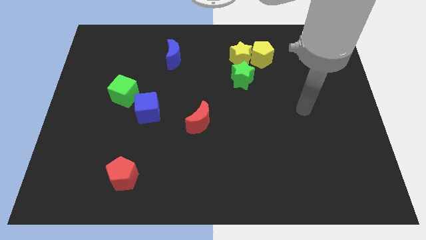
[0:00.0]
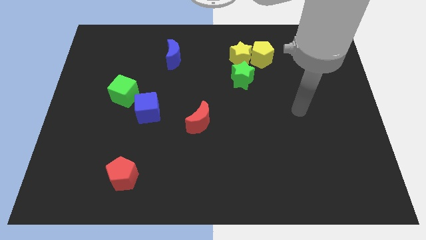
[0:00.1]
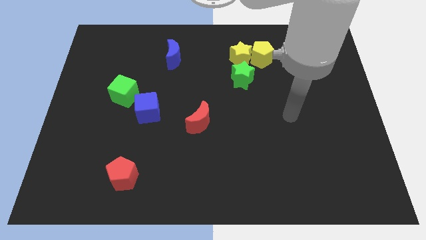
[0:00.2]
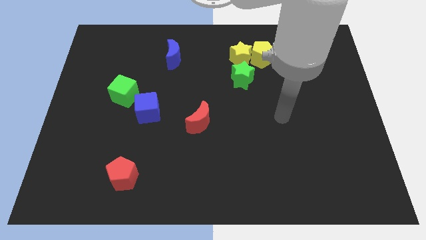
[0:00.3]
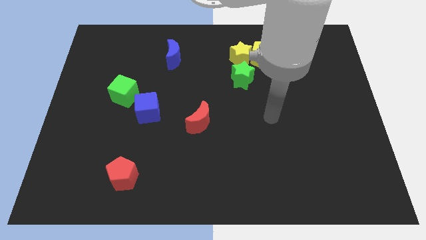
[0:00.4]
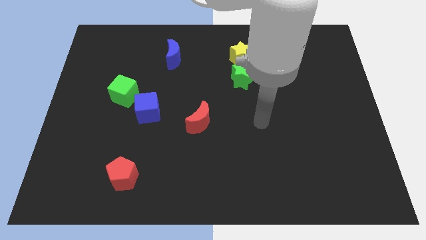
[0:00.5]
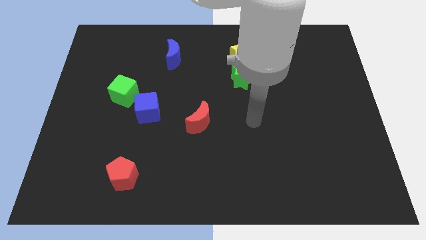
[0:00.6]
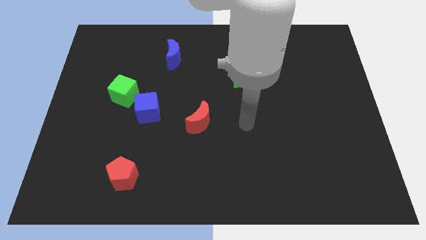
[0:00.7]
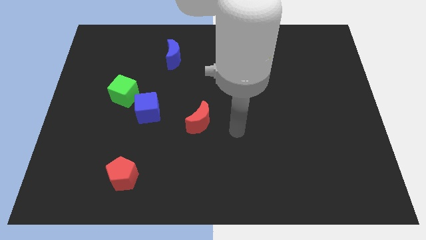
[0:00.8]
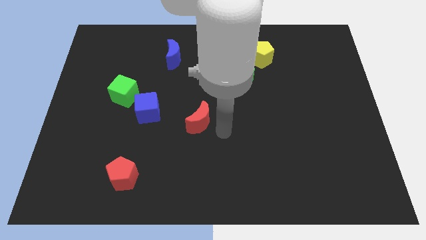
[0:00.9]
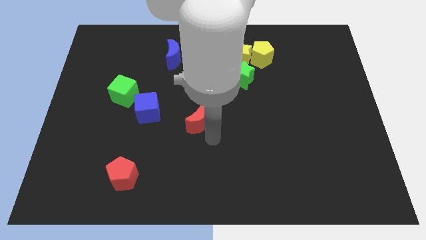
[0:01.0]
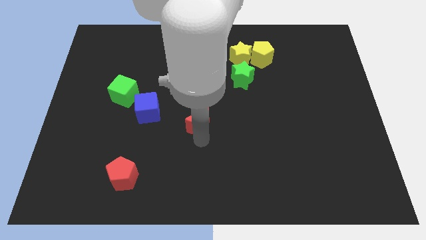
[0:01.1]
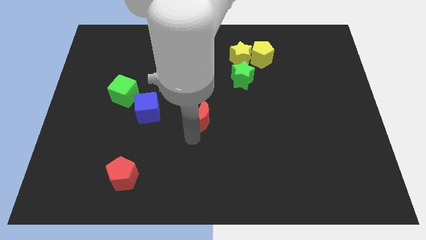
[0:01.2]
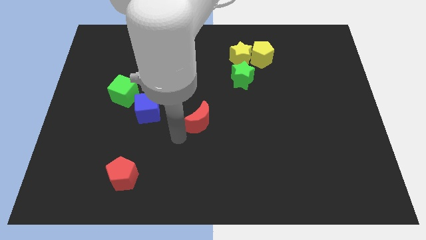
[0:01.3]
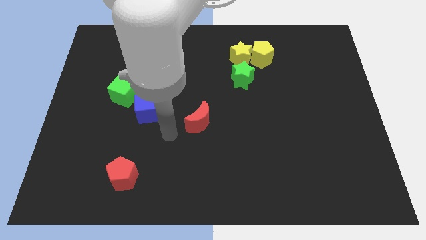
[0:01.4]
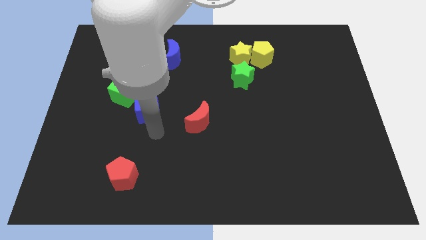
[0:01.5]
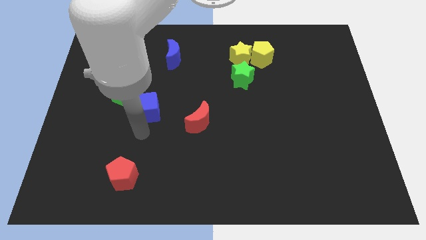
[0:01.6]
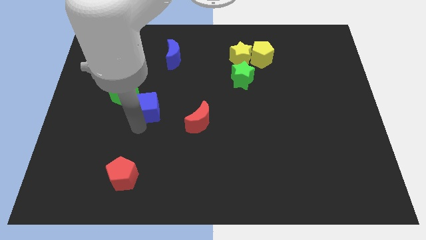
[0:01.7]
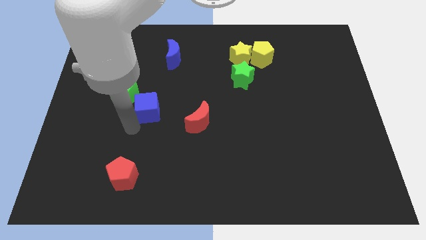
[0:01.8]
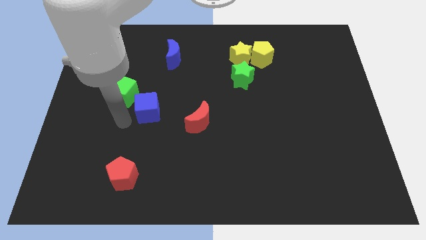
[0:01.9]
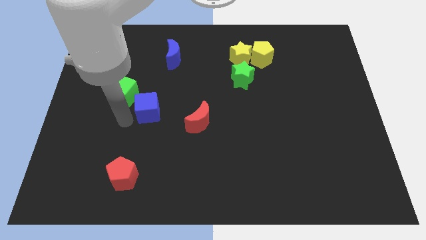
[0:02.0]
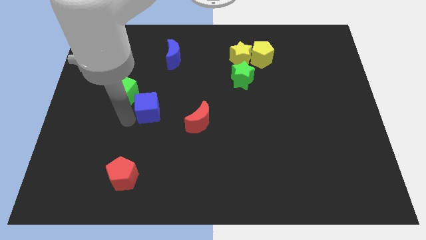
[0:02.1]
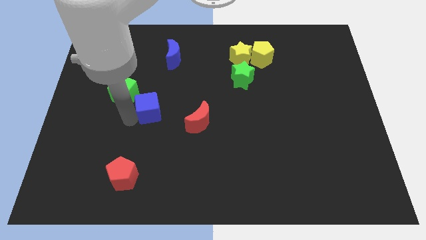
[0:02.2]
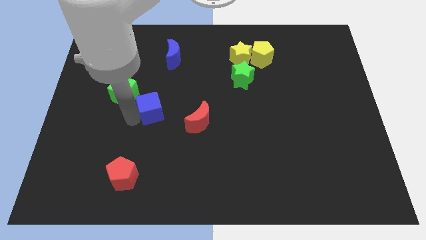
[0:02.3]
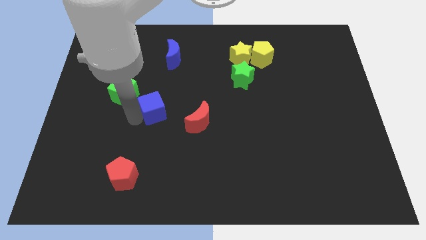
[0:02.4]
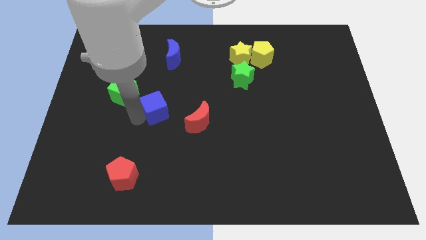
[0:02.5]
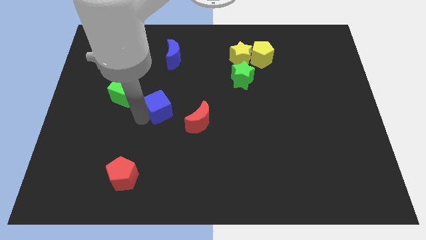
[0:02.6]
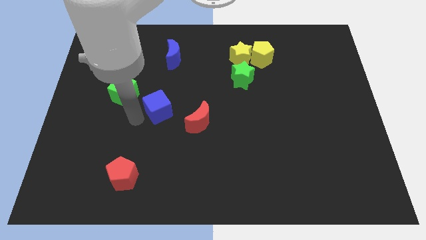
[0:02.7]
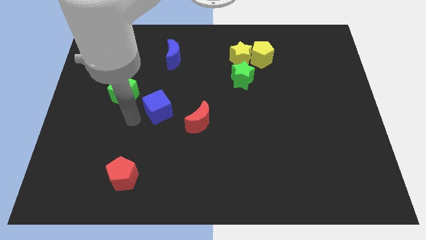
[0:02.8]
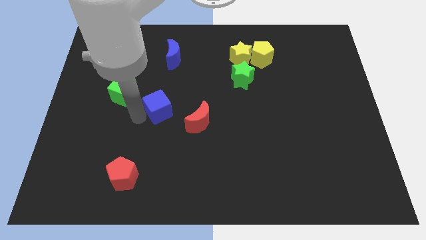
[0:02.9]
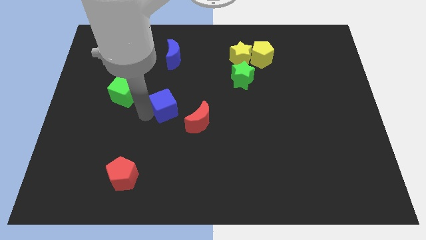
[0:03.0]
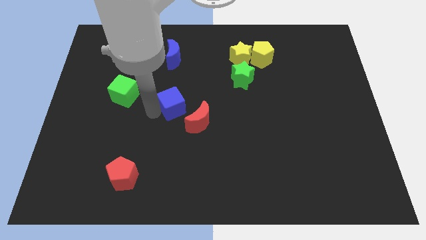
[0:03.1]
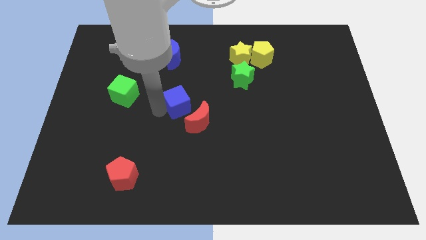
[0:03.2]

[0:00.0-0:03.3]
push the blue cube to the right a little

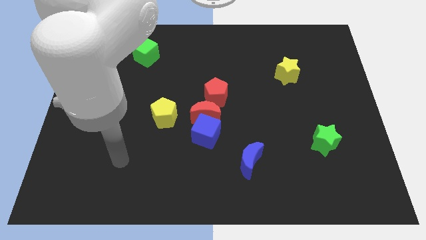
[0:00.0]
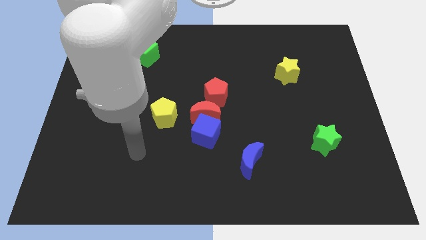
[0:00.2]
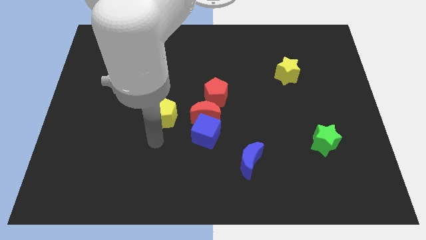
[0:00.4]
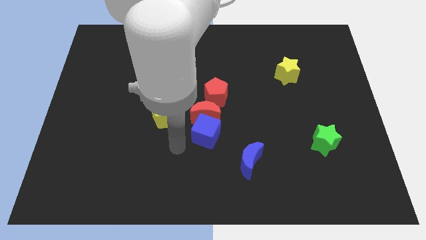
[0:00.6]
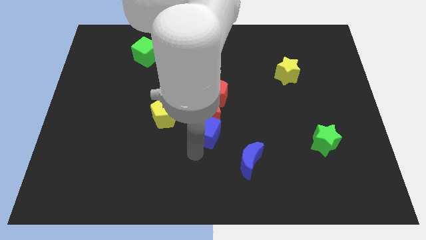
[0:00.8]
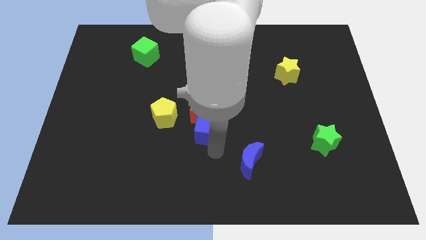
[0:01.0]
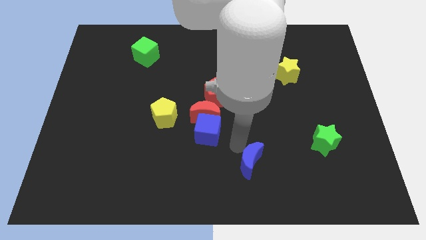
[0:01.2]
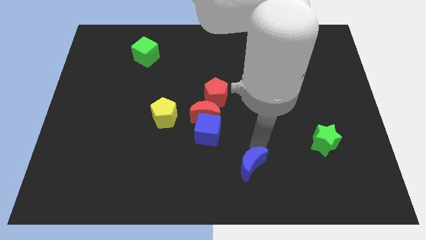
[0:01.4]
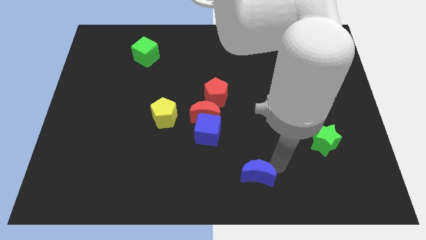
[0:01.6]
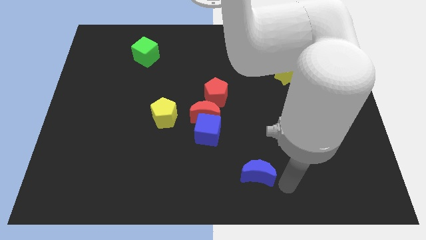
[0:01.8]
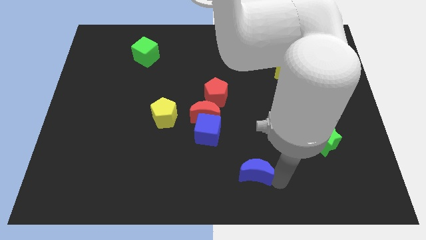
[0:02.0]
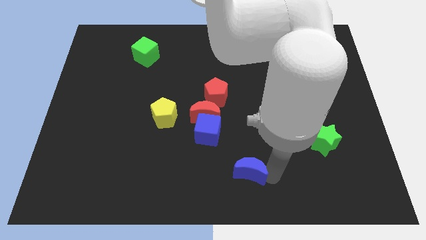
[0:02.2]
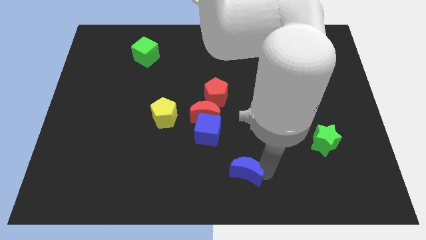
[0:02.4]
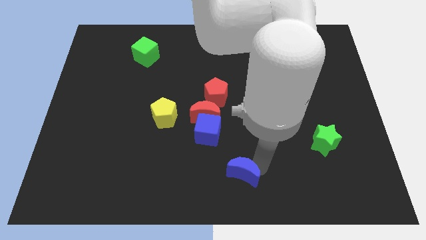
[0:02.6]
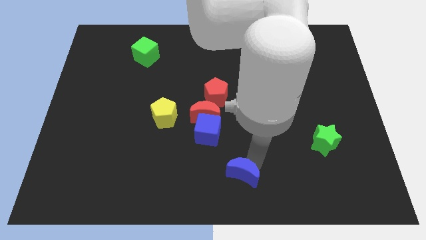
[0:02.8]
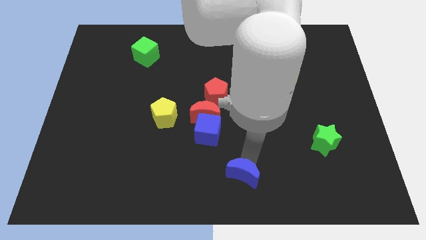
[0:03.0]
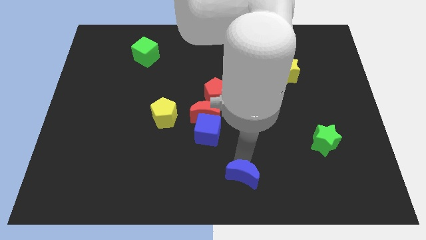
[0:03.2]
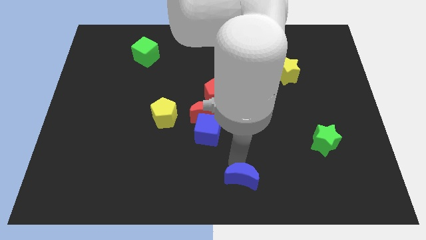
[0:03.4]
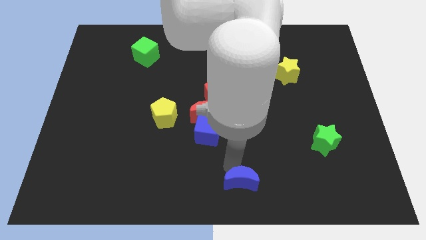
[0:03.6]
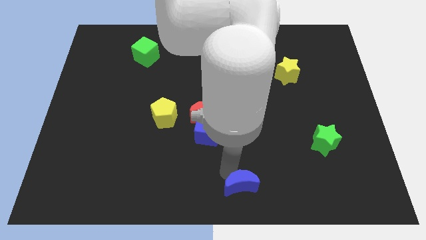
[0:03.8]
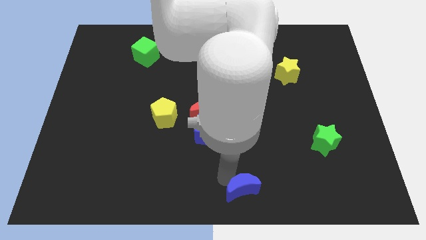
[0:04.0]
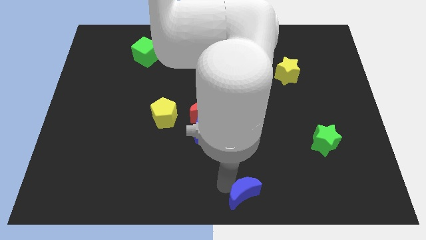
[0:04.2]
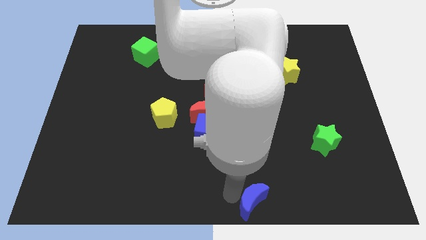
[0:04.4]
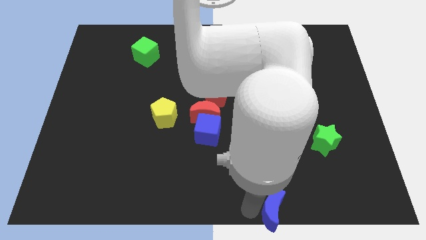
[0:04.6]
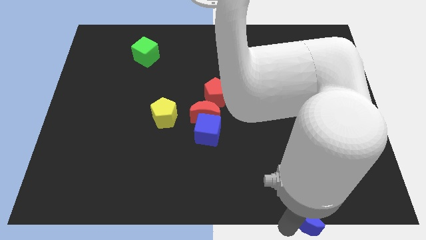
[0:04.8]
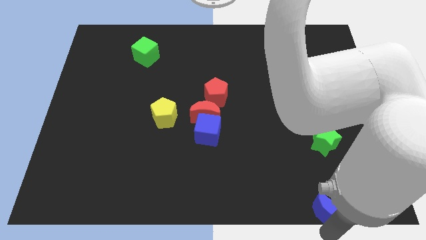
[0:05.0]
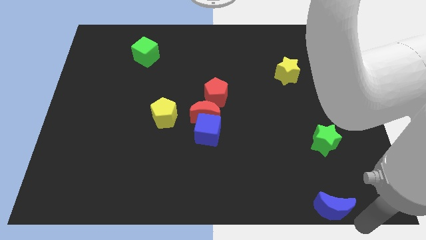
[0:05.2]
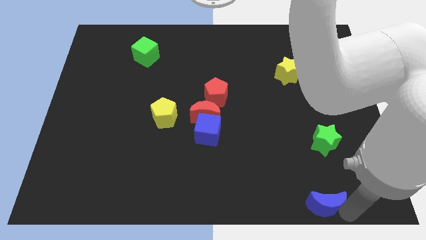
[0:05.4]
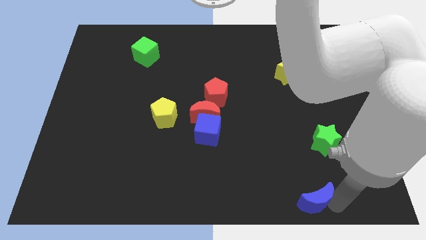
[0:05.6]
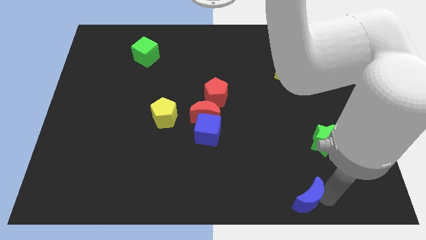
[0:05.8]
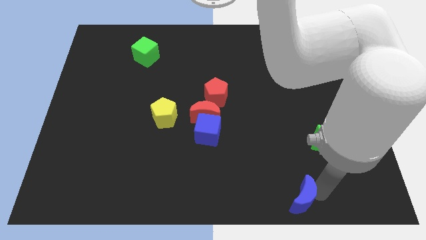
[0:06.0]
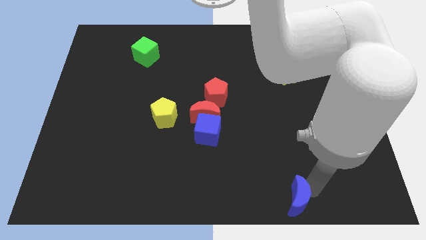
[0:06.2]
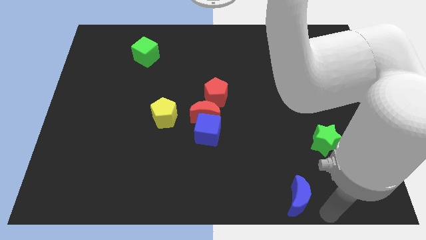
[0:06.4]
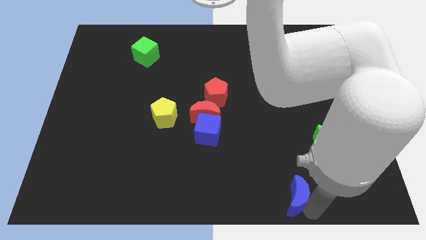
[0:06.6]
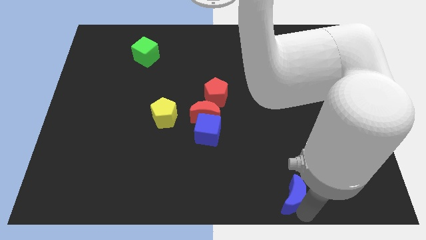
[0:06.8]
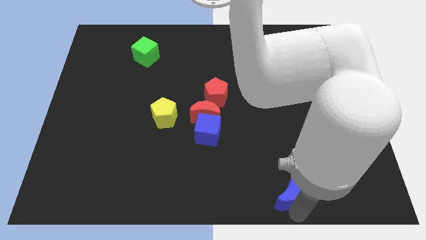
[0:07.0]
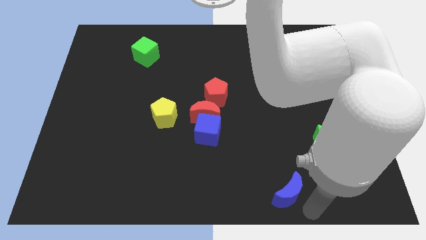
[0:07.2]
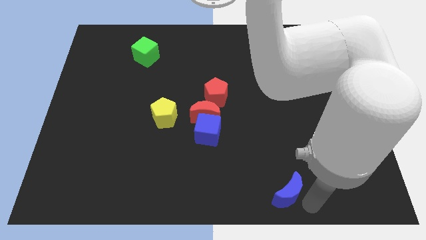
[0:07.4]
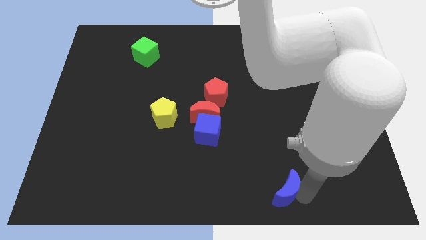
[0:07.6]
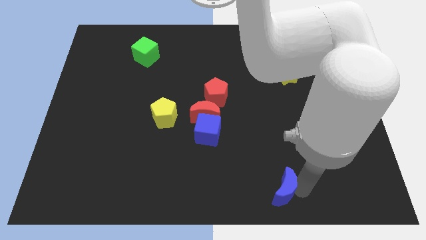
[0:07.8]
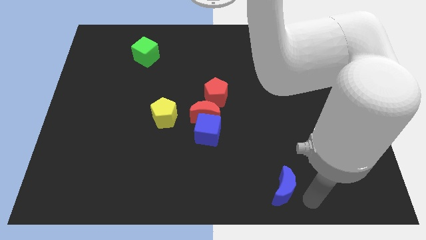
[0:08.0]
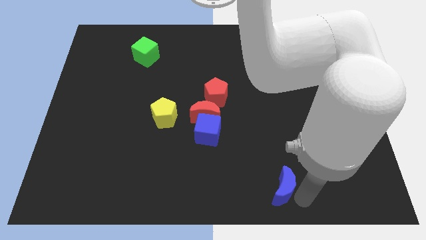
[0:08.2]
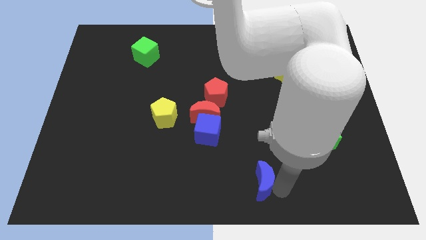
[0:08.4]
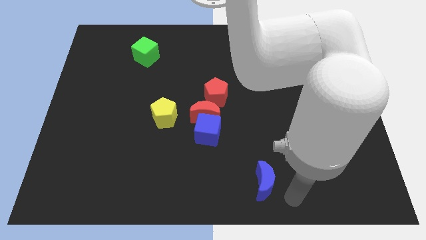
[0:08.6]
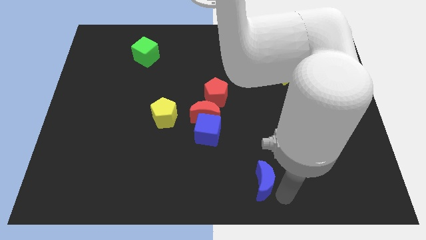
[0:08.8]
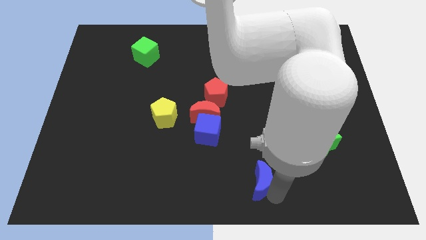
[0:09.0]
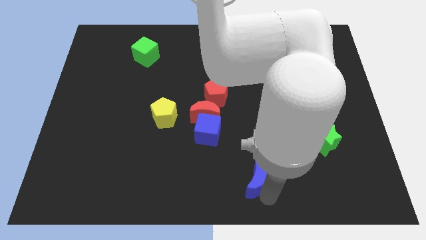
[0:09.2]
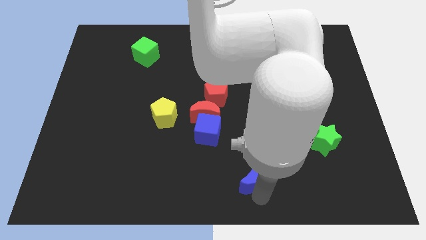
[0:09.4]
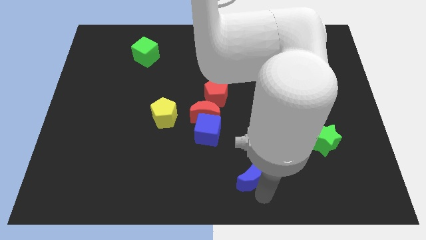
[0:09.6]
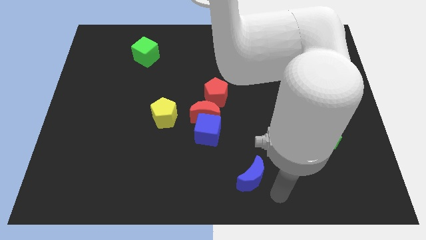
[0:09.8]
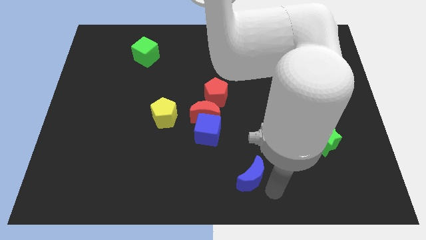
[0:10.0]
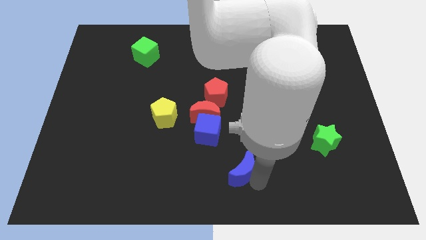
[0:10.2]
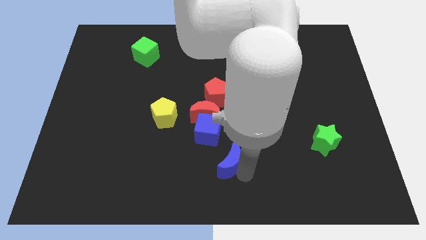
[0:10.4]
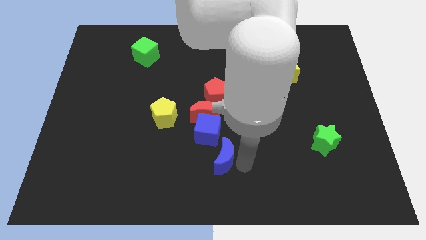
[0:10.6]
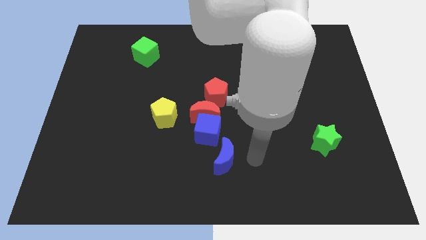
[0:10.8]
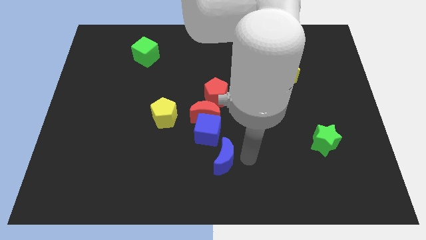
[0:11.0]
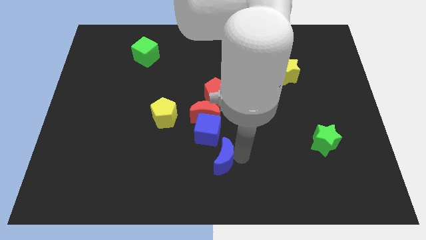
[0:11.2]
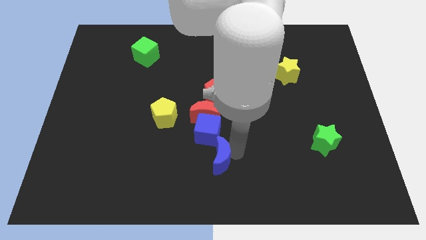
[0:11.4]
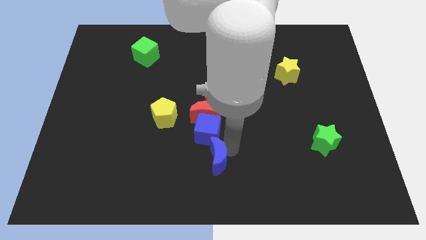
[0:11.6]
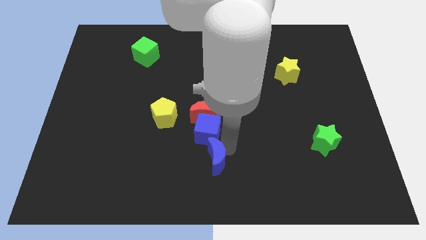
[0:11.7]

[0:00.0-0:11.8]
slightly slide the blue moon to the left
